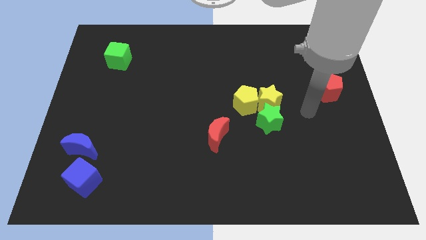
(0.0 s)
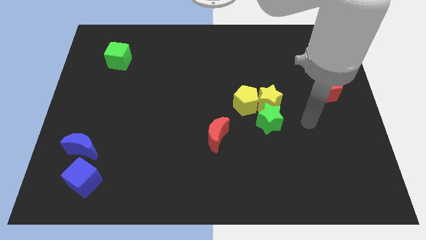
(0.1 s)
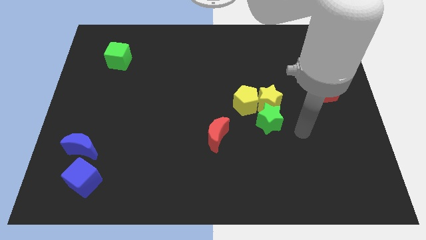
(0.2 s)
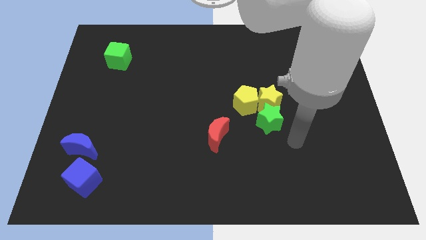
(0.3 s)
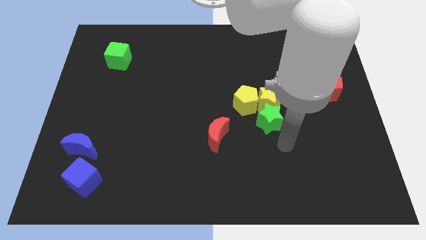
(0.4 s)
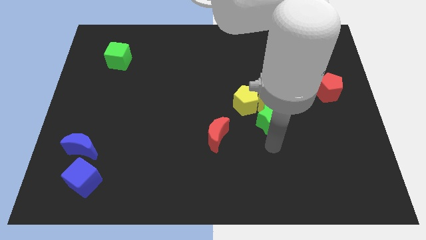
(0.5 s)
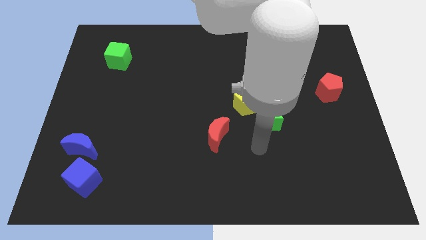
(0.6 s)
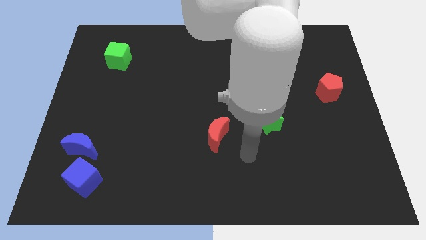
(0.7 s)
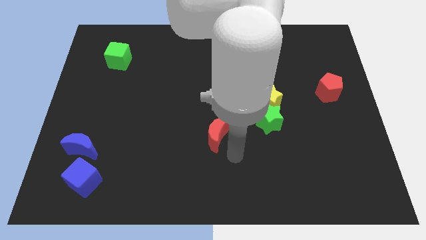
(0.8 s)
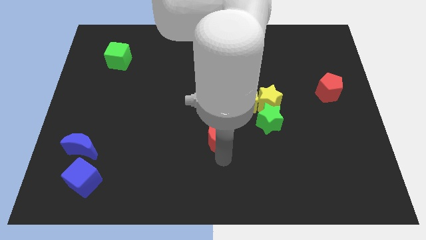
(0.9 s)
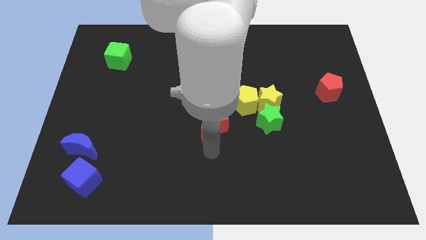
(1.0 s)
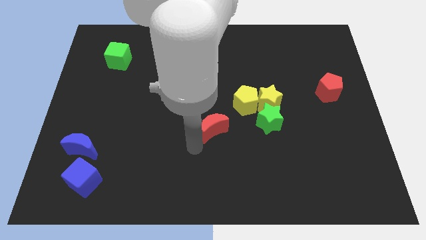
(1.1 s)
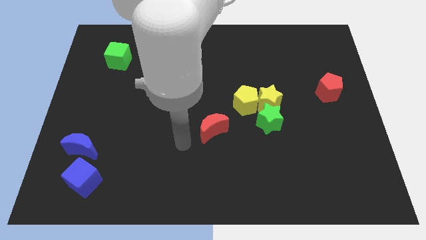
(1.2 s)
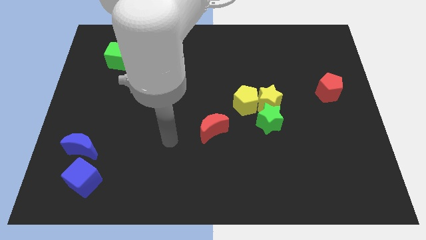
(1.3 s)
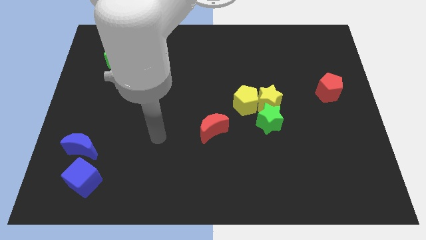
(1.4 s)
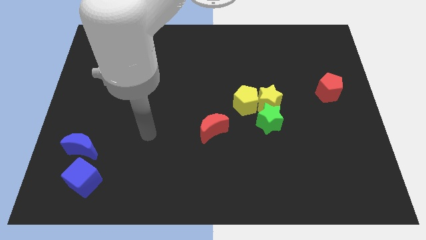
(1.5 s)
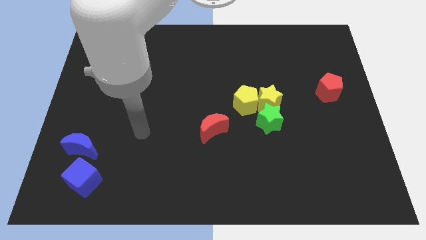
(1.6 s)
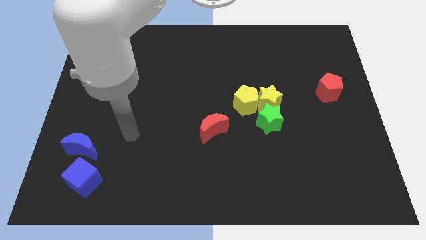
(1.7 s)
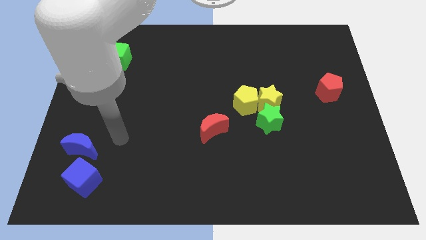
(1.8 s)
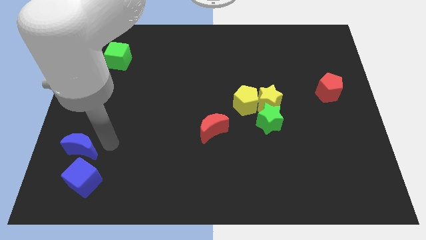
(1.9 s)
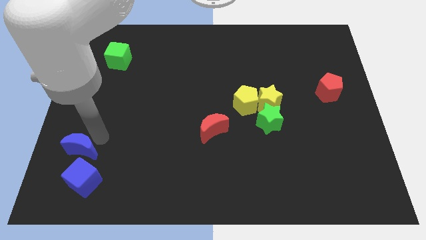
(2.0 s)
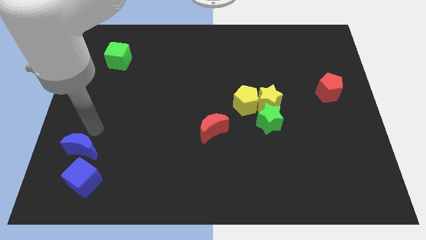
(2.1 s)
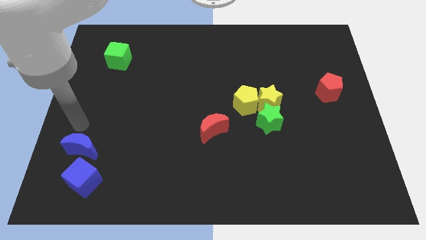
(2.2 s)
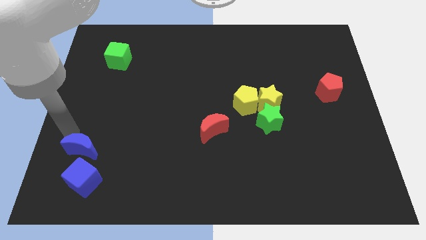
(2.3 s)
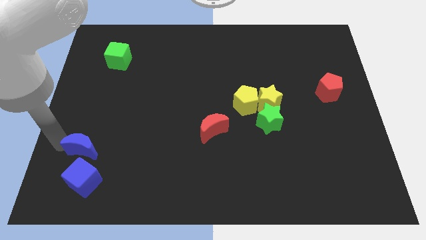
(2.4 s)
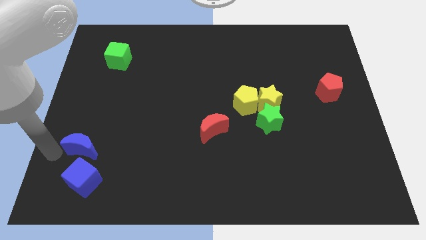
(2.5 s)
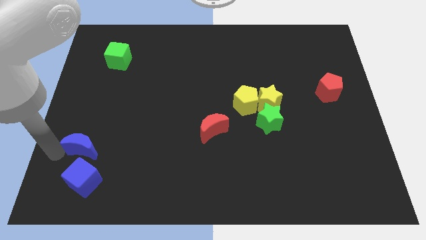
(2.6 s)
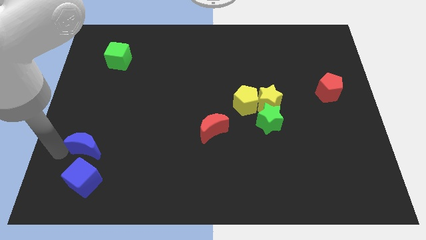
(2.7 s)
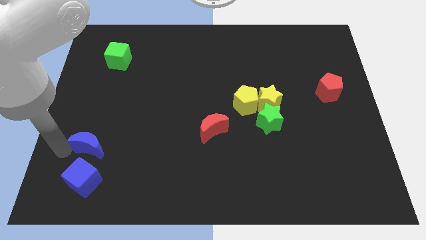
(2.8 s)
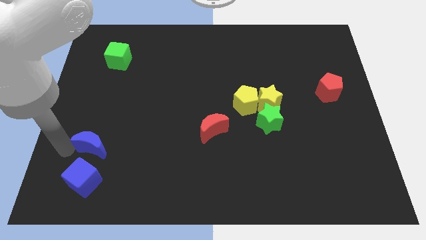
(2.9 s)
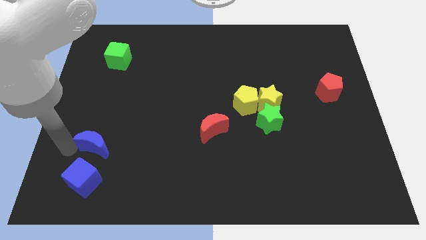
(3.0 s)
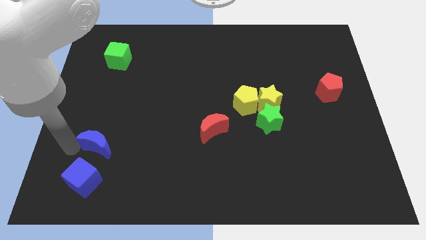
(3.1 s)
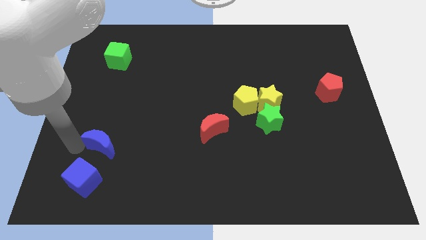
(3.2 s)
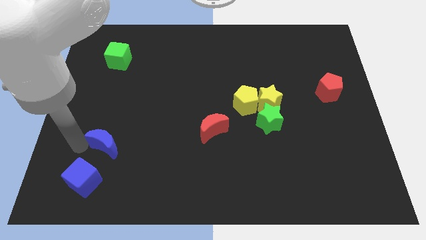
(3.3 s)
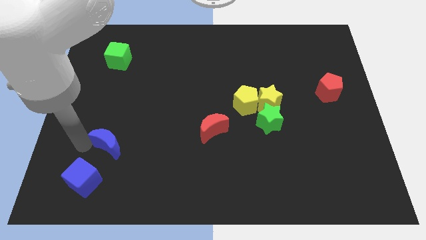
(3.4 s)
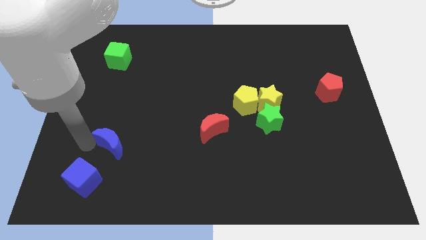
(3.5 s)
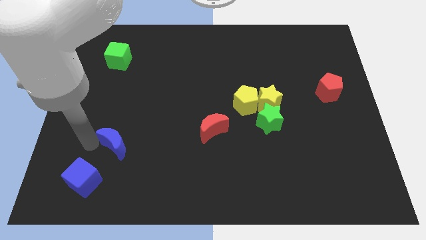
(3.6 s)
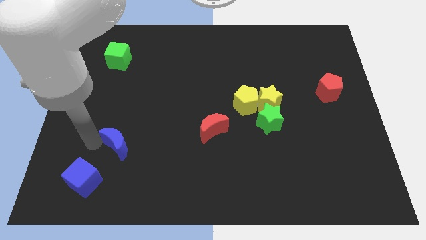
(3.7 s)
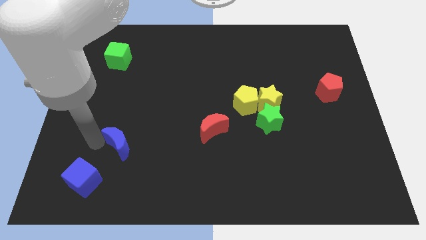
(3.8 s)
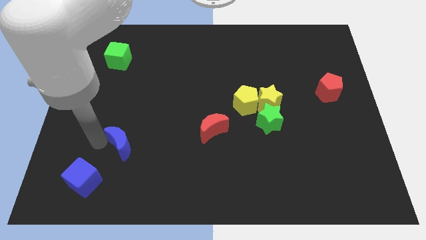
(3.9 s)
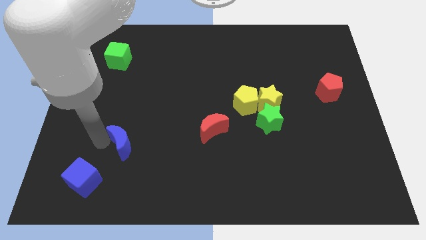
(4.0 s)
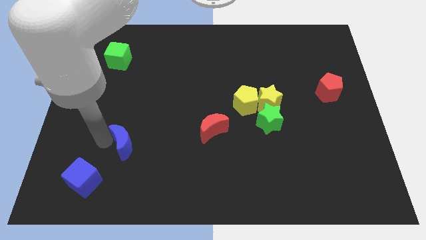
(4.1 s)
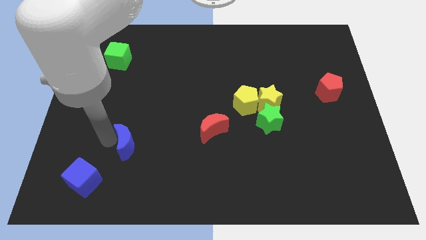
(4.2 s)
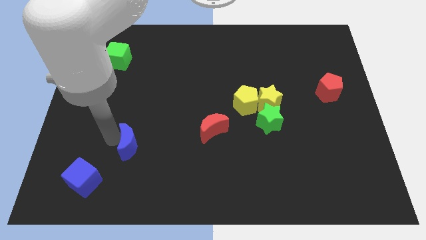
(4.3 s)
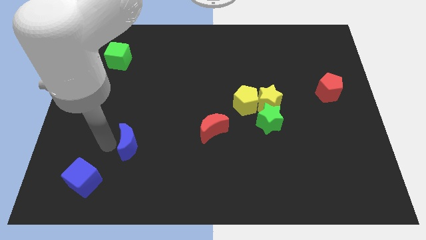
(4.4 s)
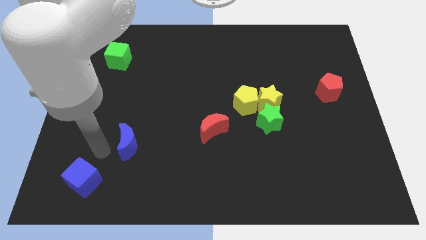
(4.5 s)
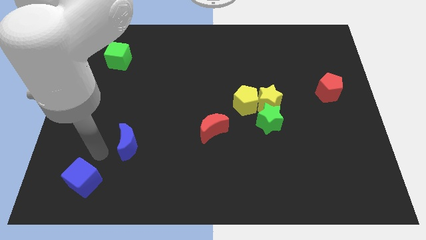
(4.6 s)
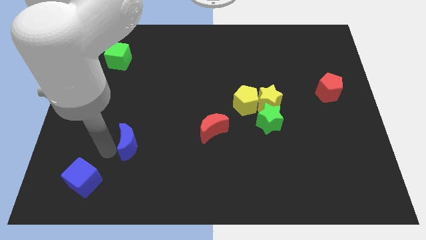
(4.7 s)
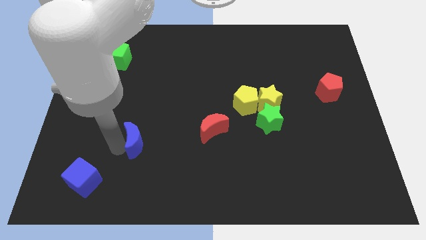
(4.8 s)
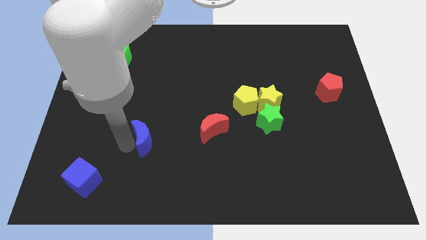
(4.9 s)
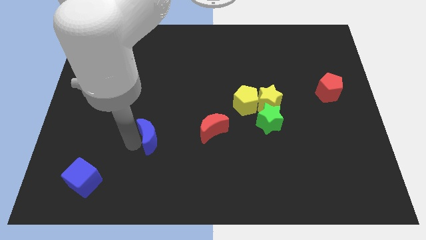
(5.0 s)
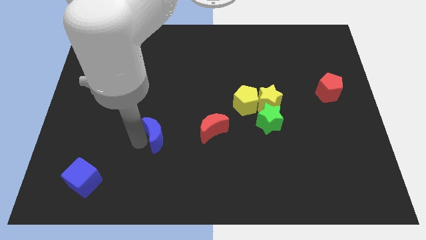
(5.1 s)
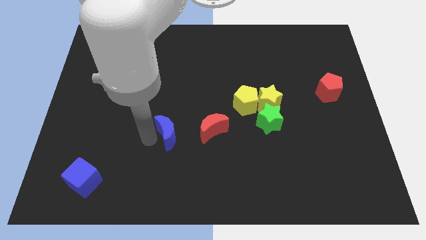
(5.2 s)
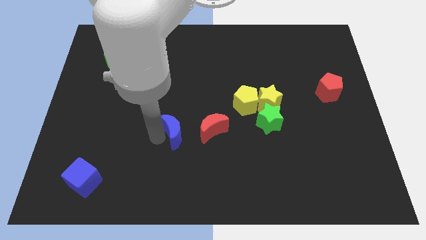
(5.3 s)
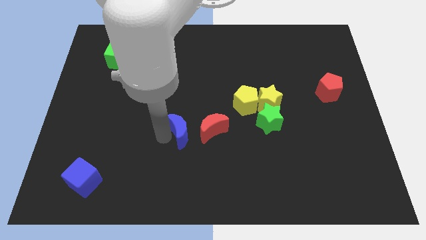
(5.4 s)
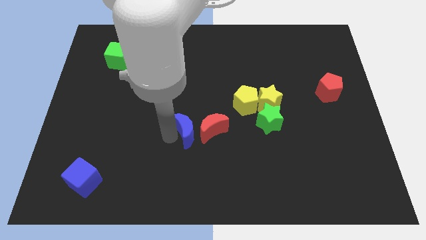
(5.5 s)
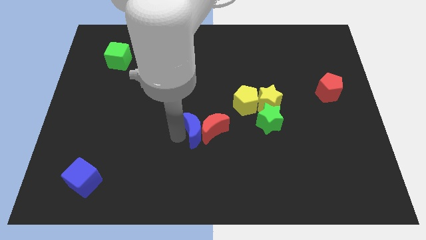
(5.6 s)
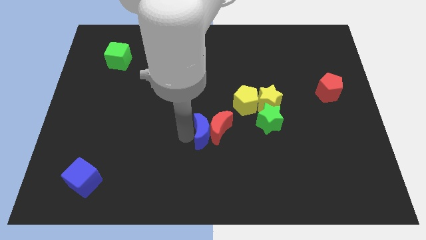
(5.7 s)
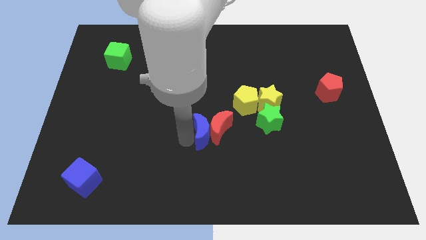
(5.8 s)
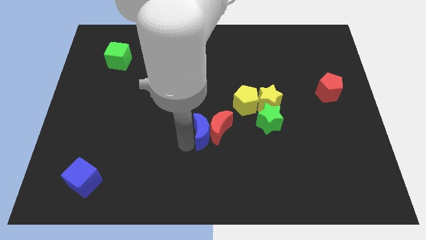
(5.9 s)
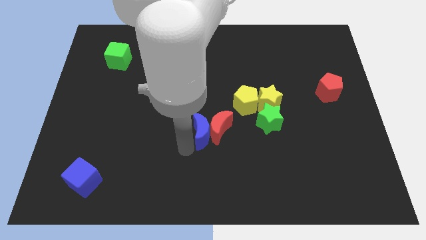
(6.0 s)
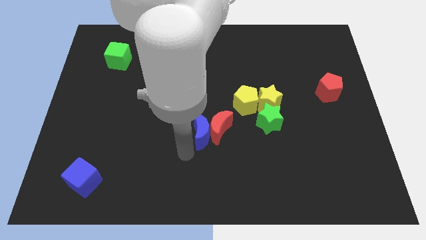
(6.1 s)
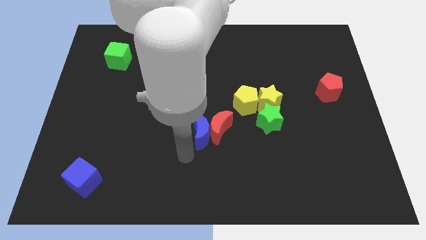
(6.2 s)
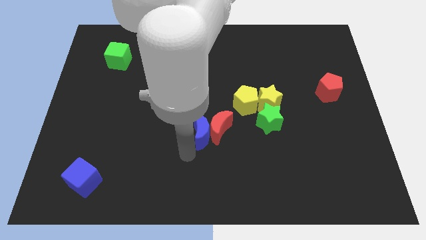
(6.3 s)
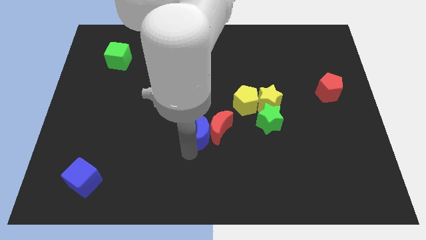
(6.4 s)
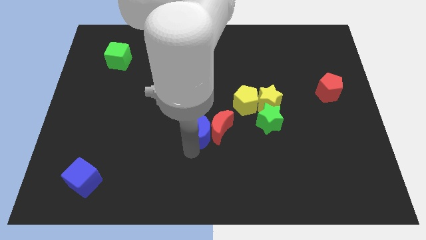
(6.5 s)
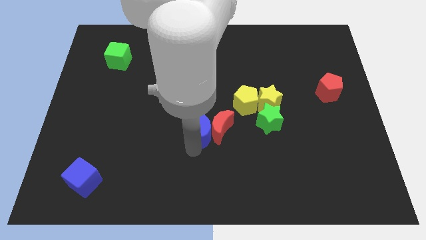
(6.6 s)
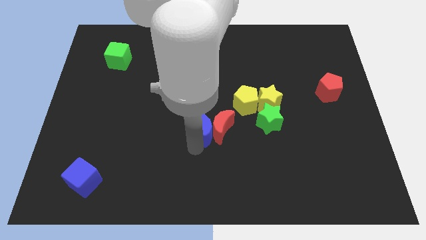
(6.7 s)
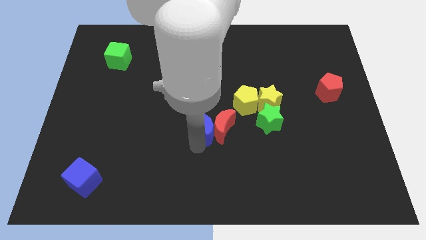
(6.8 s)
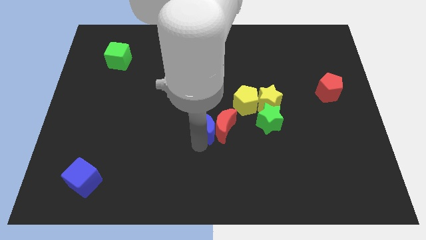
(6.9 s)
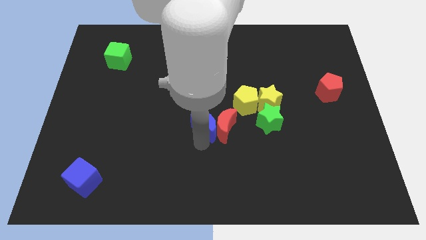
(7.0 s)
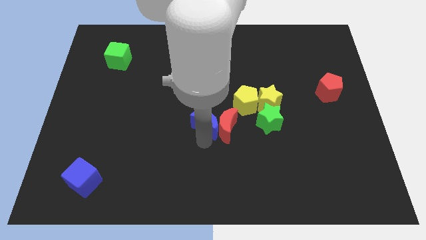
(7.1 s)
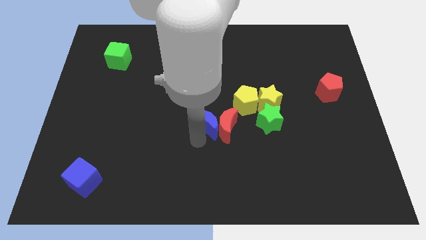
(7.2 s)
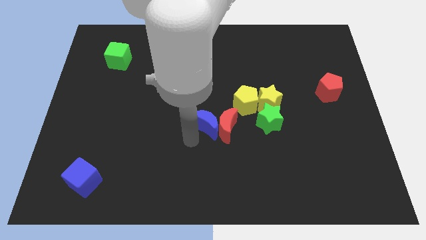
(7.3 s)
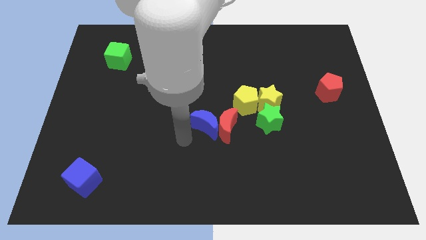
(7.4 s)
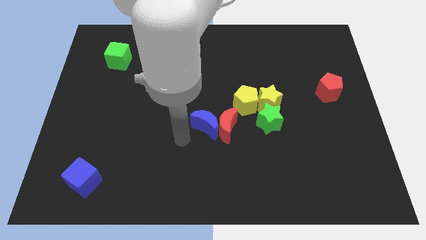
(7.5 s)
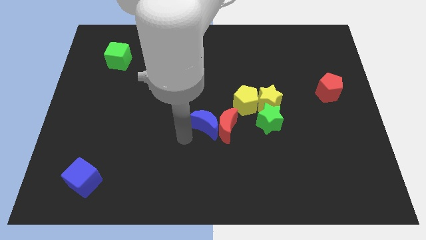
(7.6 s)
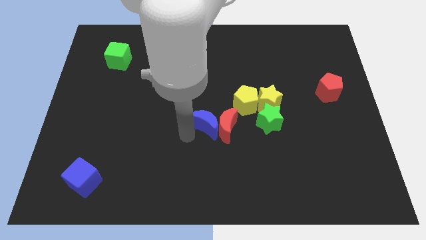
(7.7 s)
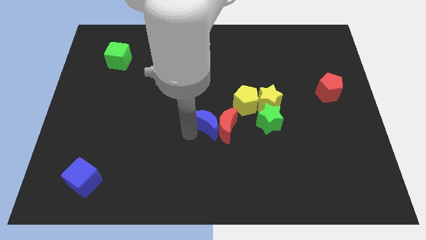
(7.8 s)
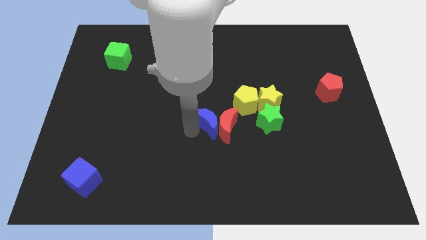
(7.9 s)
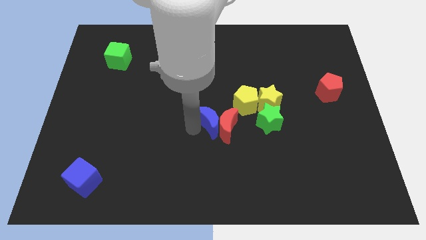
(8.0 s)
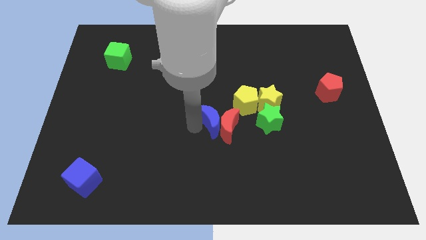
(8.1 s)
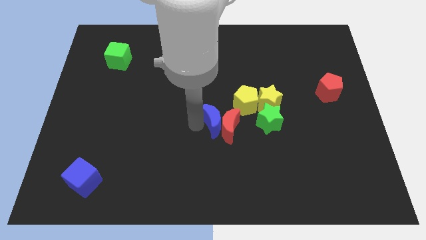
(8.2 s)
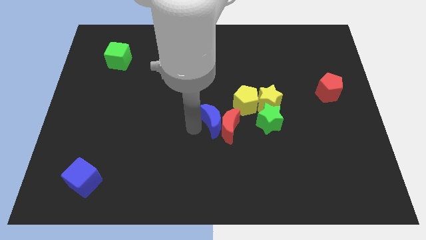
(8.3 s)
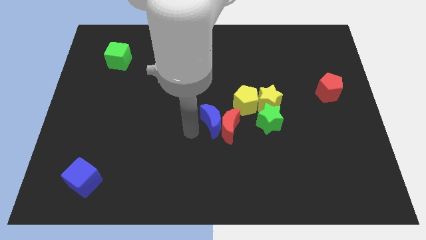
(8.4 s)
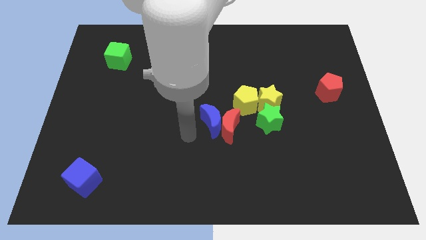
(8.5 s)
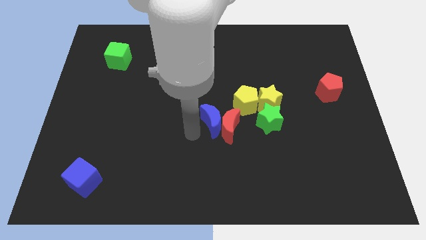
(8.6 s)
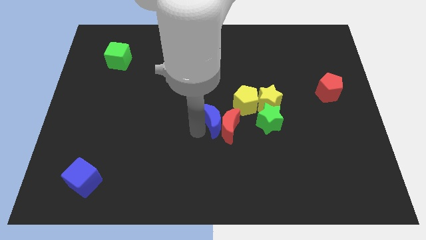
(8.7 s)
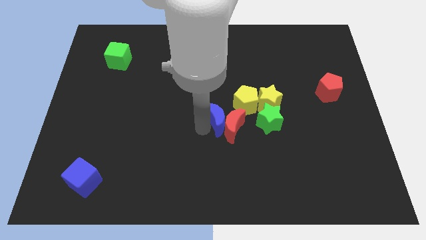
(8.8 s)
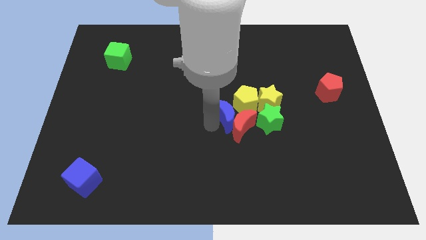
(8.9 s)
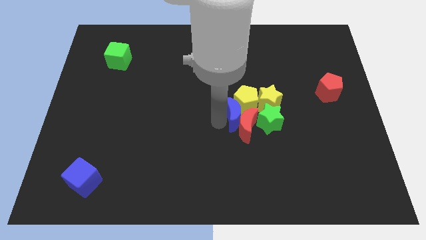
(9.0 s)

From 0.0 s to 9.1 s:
slide the blue moon to the yellow pentagon
